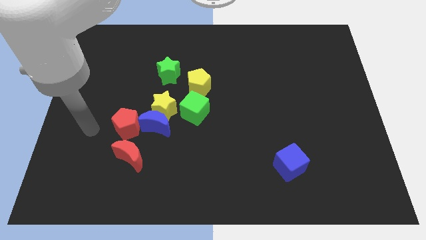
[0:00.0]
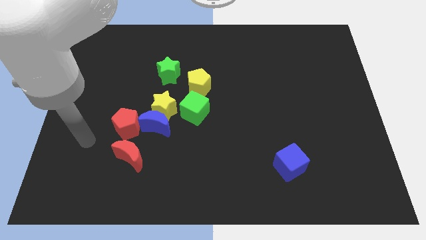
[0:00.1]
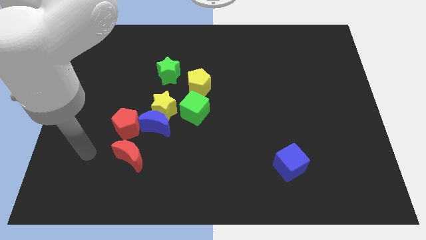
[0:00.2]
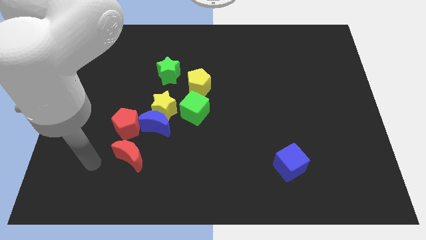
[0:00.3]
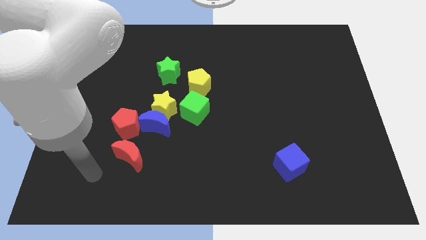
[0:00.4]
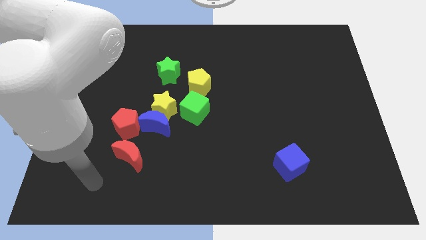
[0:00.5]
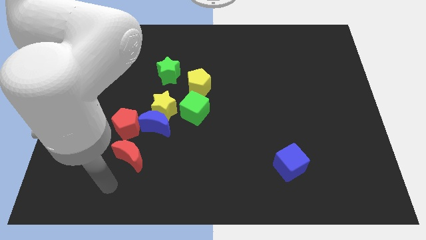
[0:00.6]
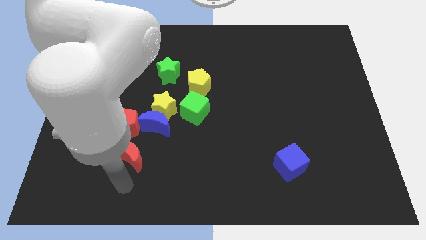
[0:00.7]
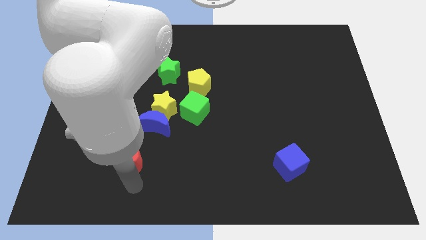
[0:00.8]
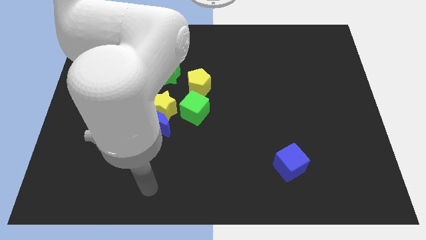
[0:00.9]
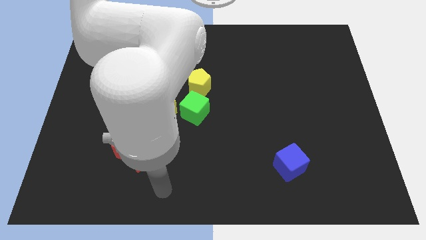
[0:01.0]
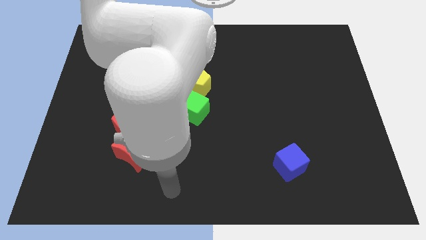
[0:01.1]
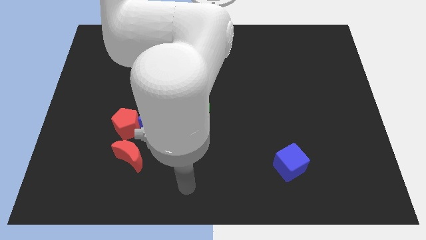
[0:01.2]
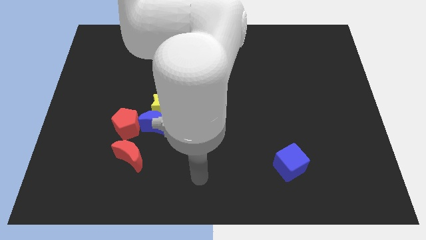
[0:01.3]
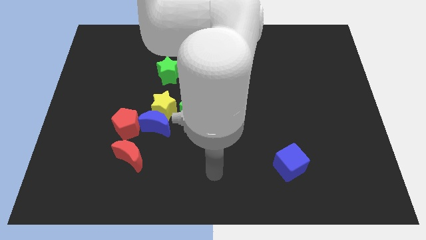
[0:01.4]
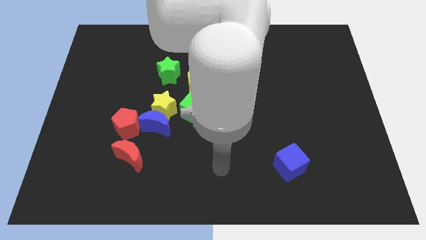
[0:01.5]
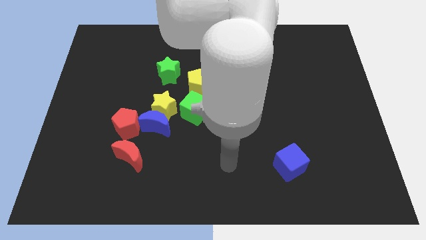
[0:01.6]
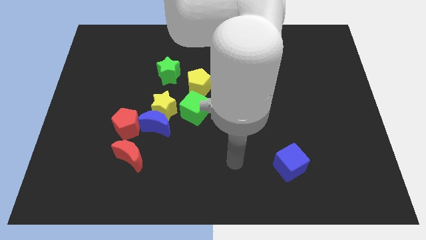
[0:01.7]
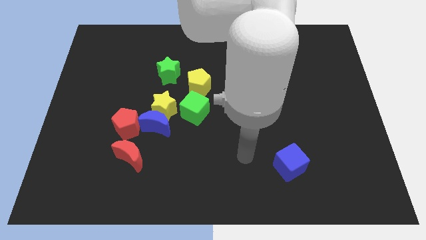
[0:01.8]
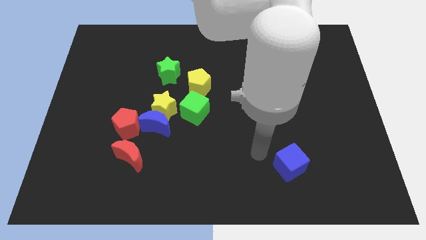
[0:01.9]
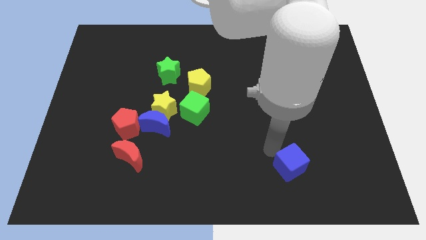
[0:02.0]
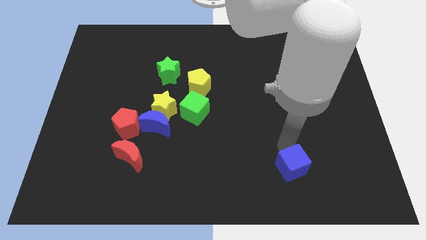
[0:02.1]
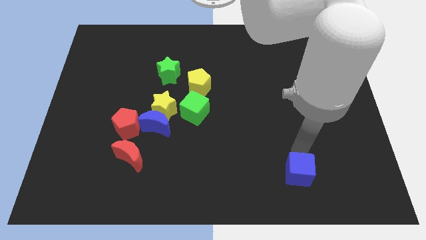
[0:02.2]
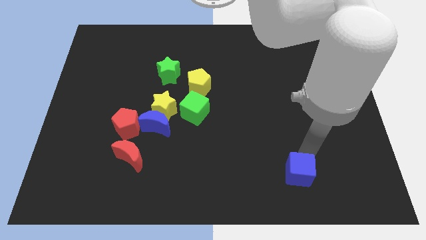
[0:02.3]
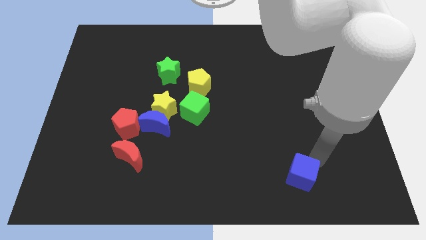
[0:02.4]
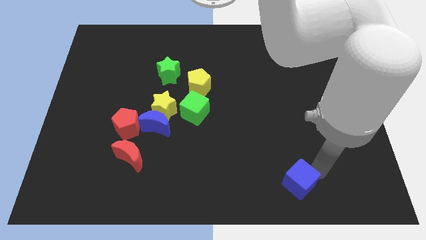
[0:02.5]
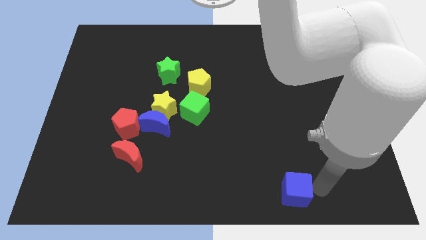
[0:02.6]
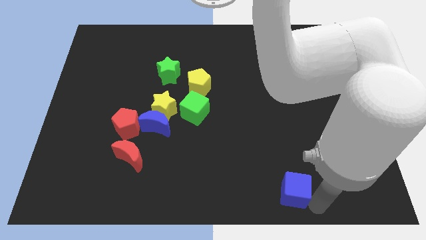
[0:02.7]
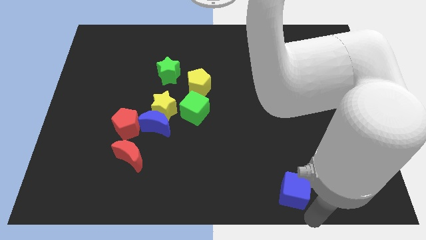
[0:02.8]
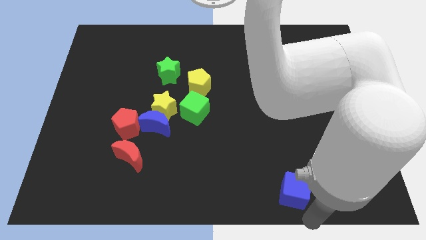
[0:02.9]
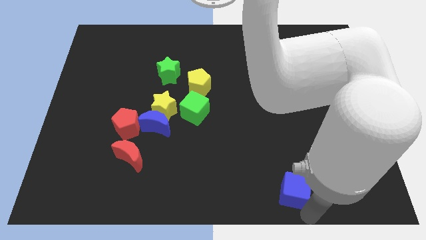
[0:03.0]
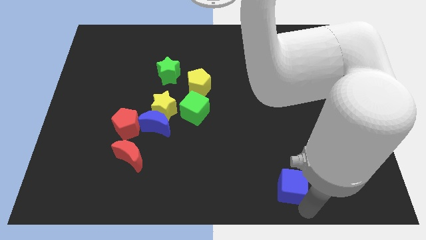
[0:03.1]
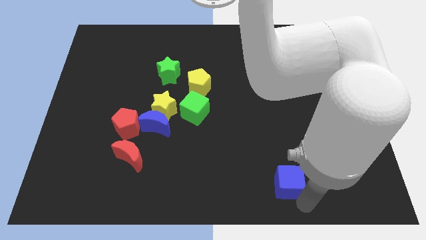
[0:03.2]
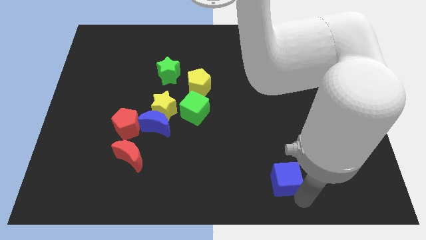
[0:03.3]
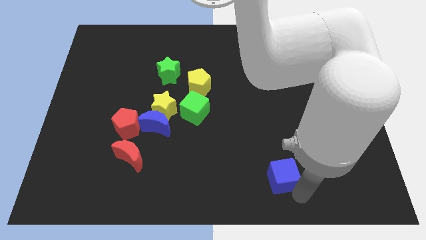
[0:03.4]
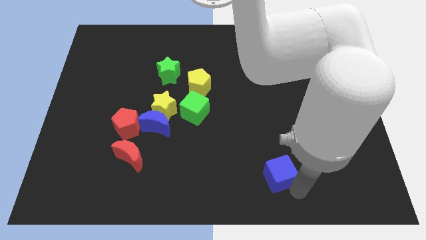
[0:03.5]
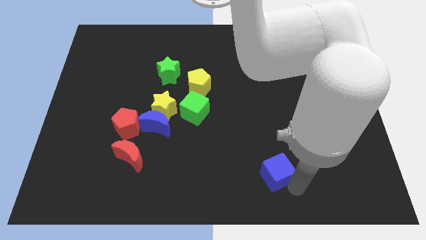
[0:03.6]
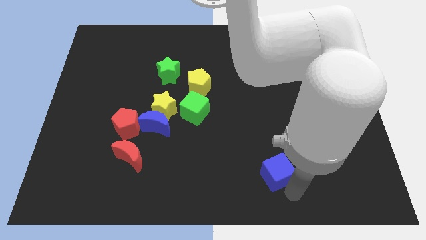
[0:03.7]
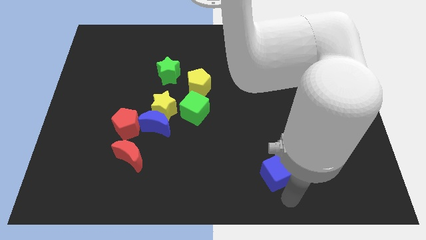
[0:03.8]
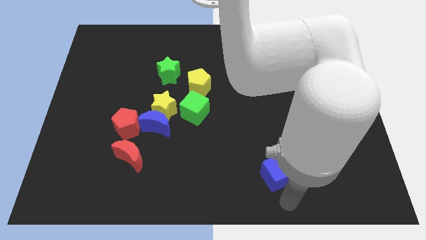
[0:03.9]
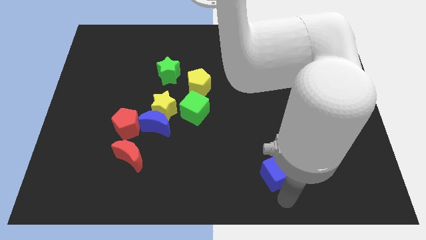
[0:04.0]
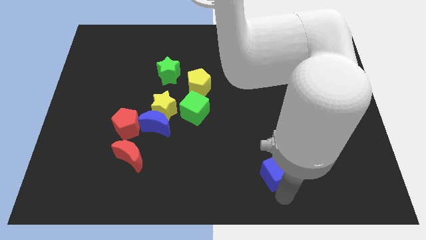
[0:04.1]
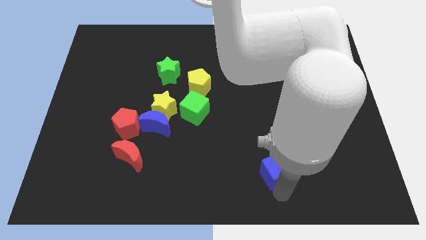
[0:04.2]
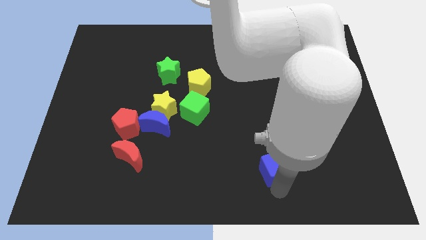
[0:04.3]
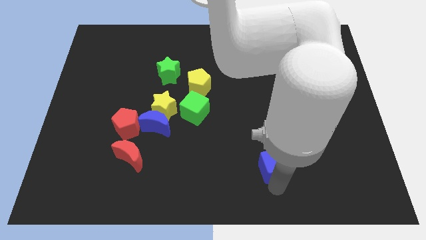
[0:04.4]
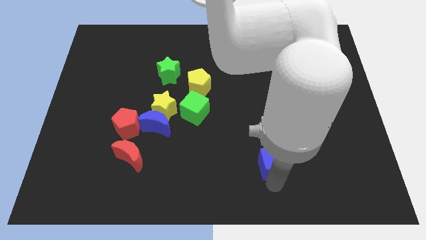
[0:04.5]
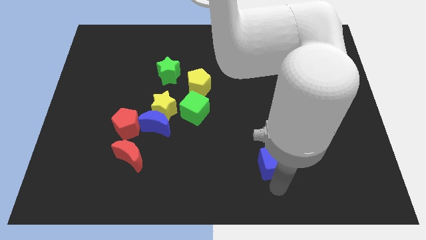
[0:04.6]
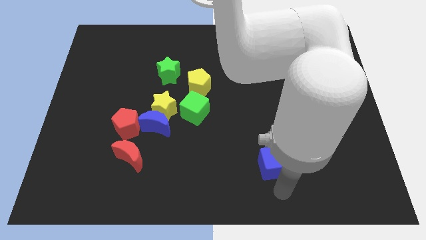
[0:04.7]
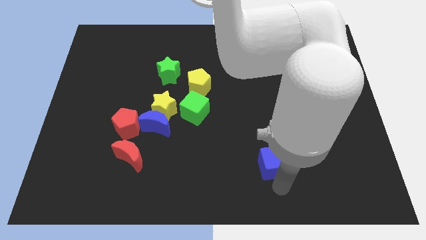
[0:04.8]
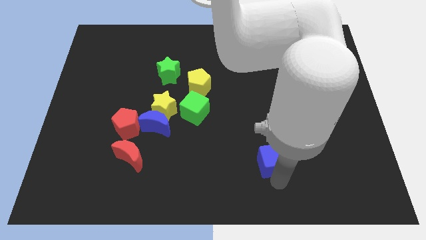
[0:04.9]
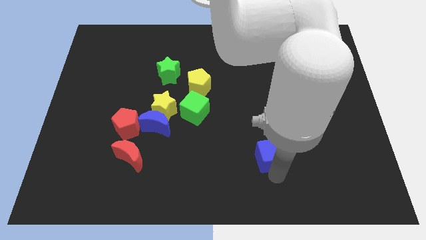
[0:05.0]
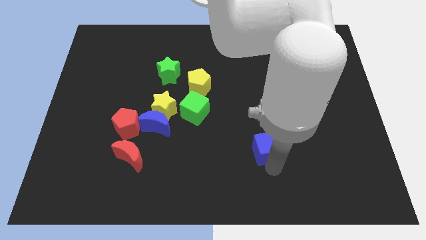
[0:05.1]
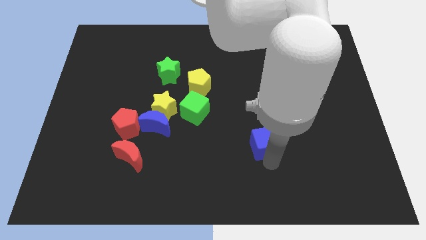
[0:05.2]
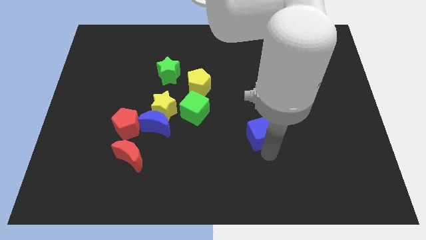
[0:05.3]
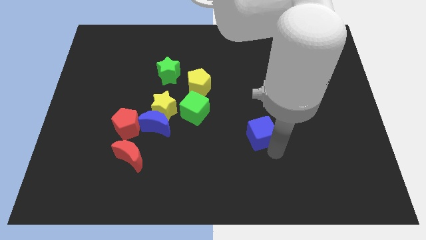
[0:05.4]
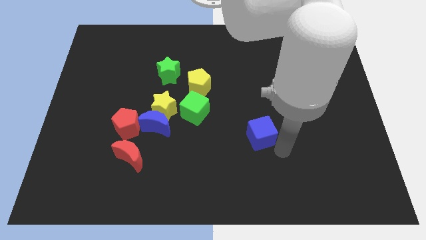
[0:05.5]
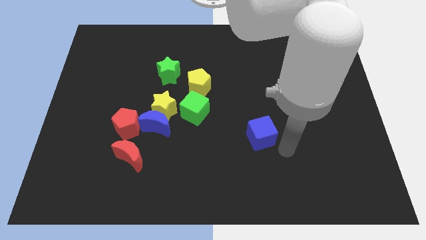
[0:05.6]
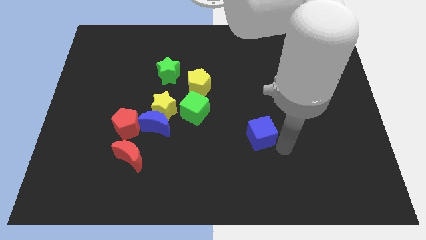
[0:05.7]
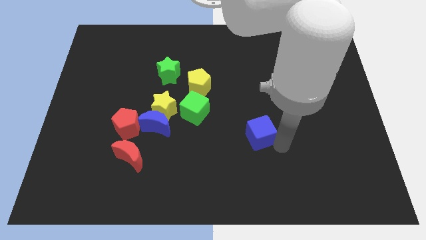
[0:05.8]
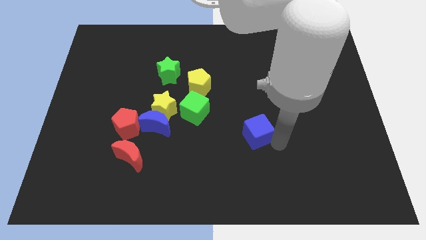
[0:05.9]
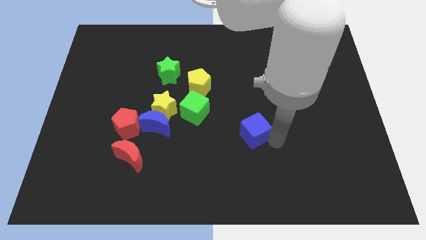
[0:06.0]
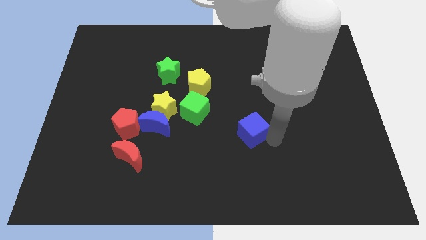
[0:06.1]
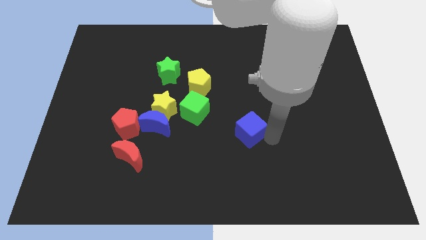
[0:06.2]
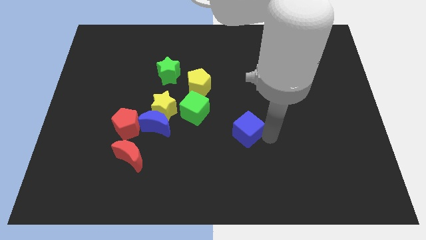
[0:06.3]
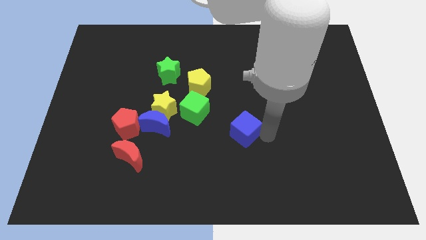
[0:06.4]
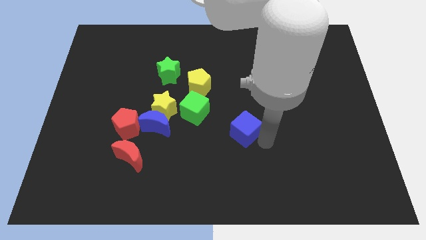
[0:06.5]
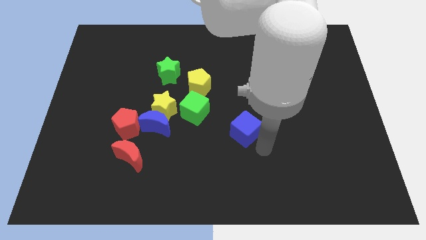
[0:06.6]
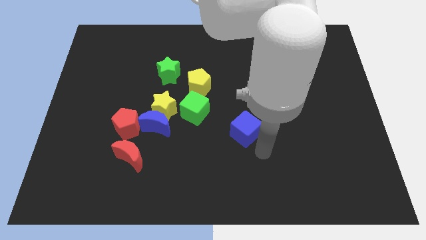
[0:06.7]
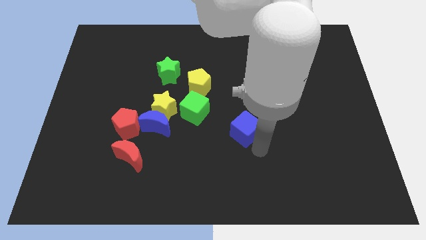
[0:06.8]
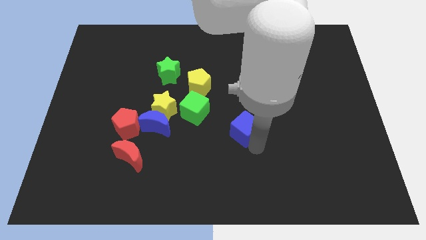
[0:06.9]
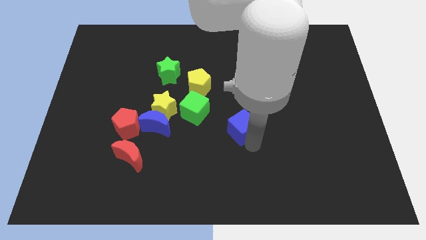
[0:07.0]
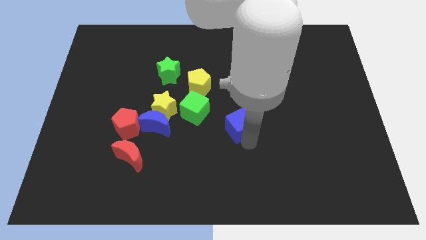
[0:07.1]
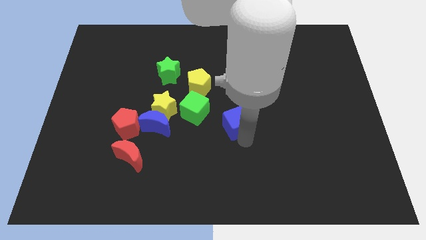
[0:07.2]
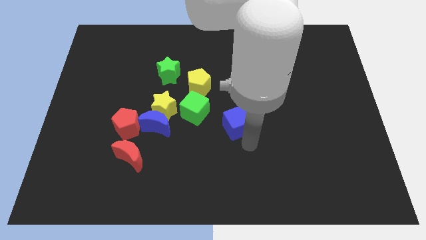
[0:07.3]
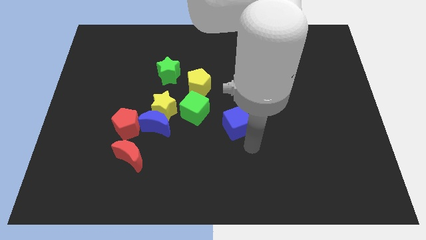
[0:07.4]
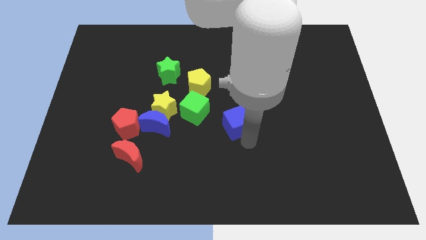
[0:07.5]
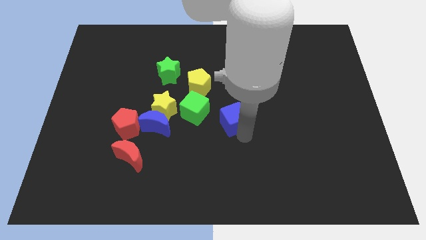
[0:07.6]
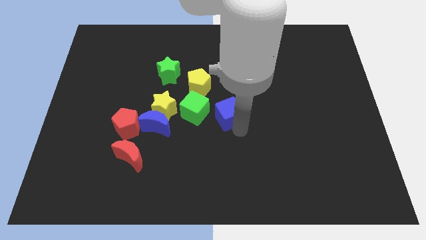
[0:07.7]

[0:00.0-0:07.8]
put the blue cube to the bottom right side of the yellow pentagon

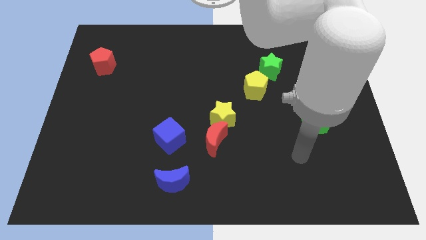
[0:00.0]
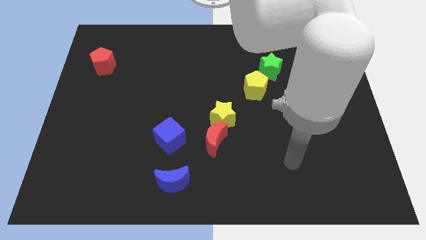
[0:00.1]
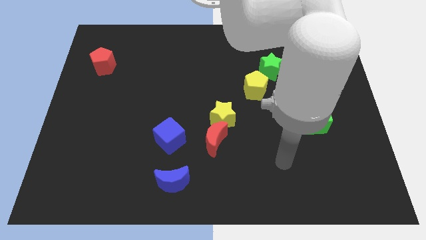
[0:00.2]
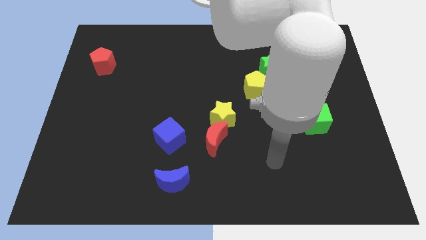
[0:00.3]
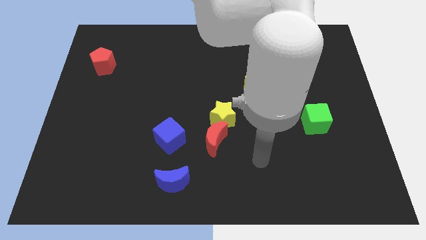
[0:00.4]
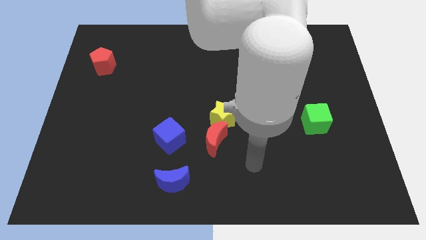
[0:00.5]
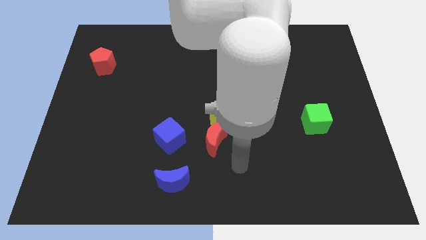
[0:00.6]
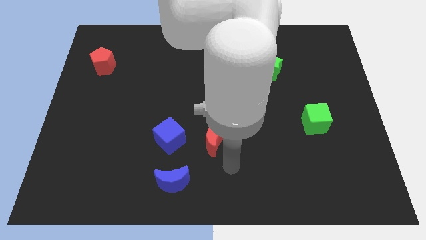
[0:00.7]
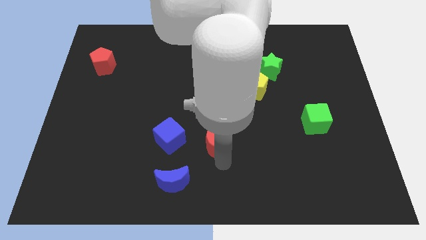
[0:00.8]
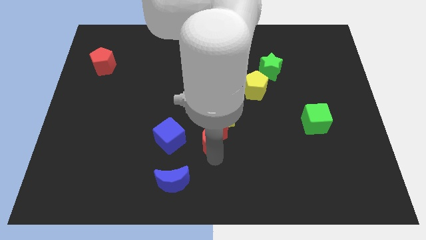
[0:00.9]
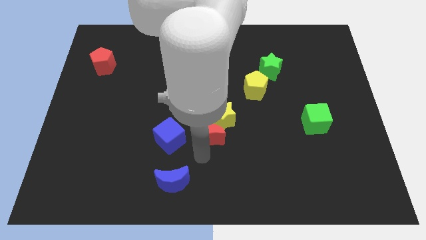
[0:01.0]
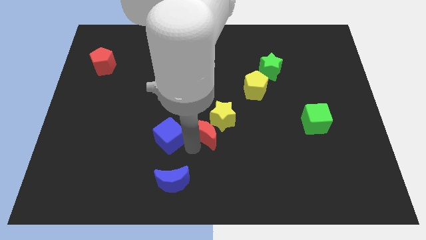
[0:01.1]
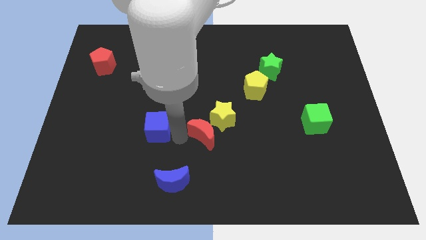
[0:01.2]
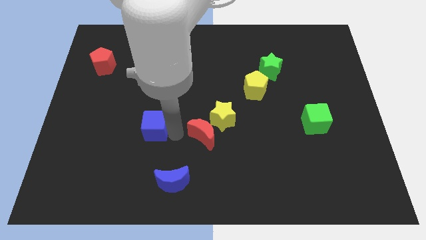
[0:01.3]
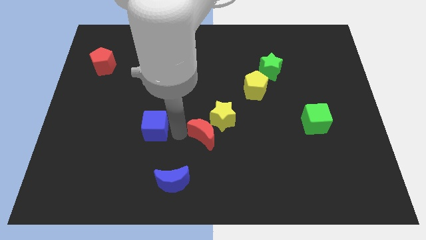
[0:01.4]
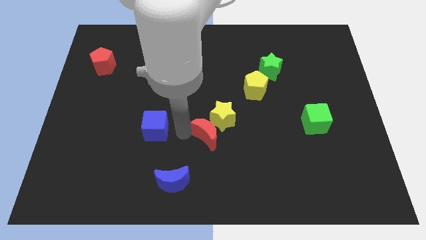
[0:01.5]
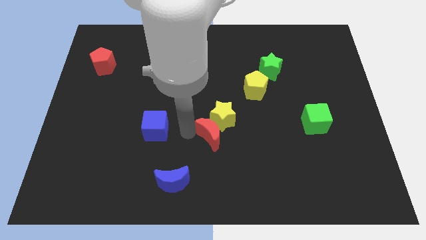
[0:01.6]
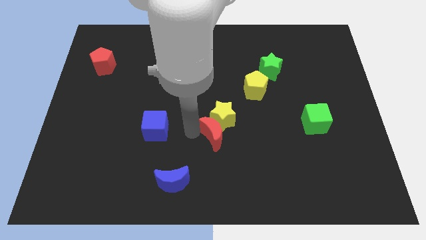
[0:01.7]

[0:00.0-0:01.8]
slide the red moon to the bottom right side of the yellow star
